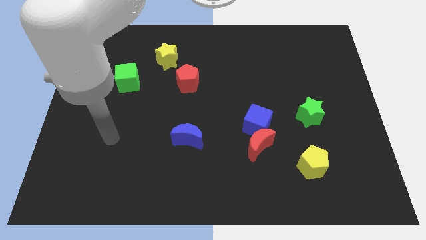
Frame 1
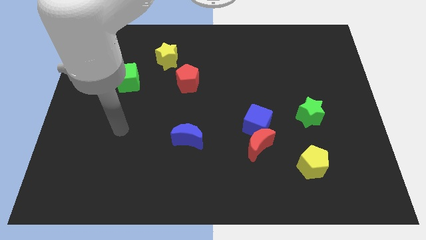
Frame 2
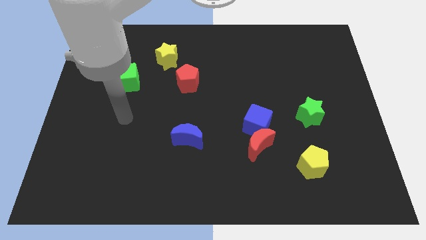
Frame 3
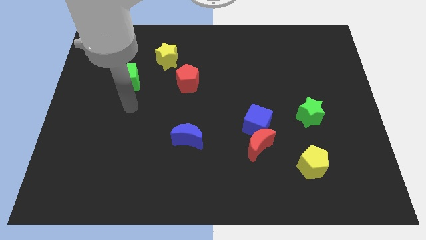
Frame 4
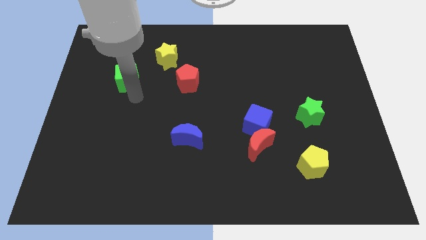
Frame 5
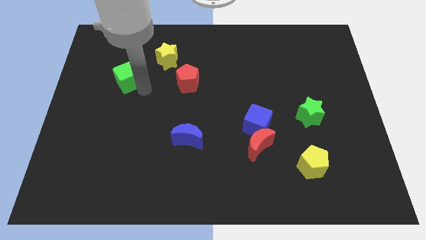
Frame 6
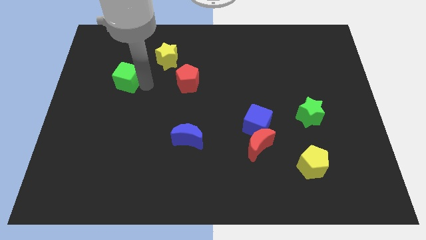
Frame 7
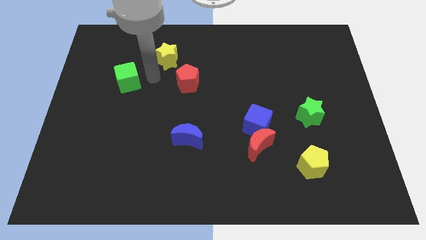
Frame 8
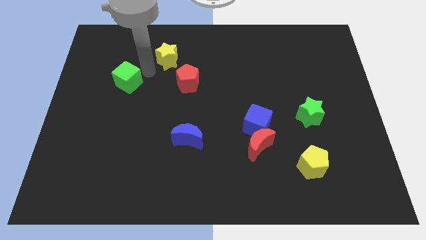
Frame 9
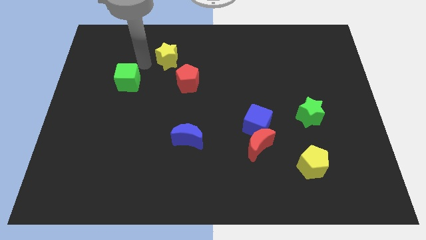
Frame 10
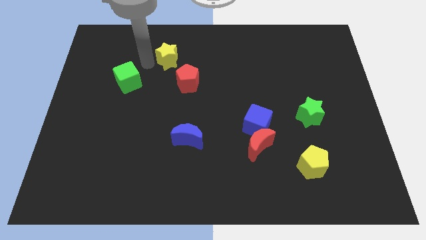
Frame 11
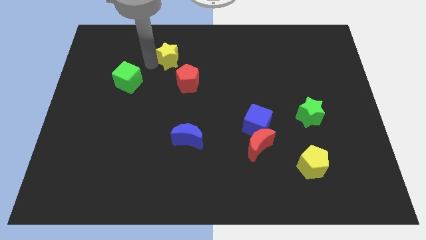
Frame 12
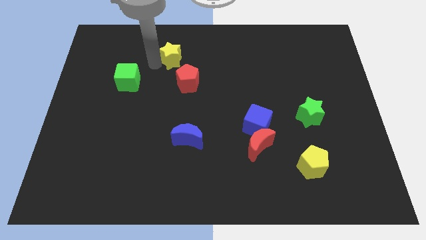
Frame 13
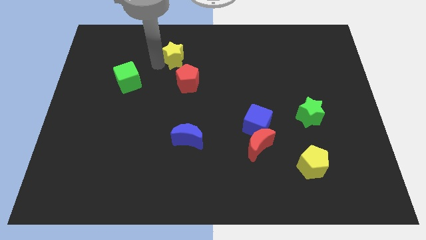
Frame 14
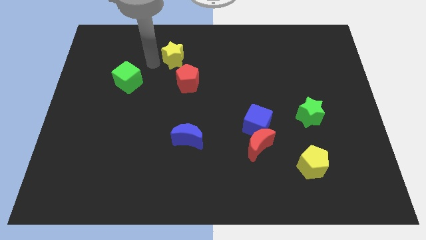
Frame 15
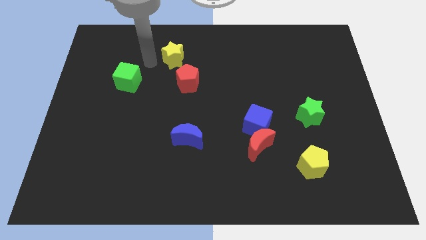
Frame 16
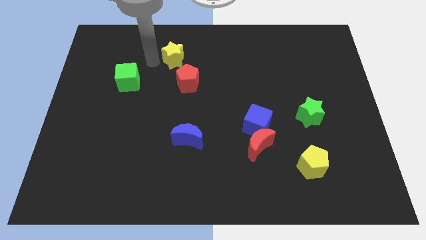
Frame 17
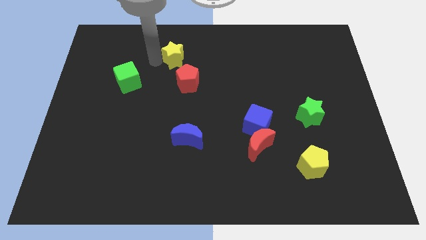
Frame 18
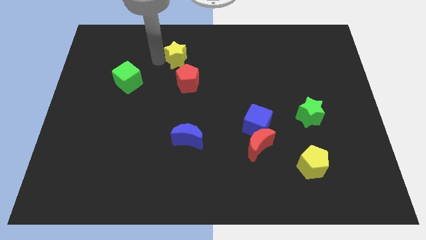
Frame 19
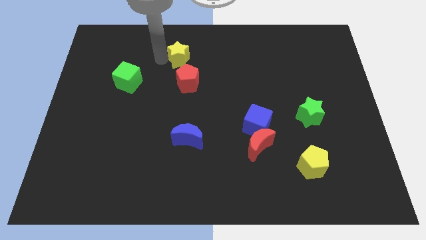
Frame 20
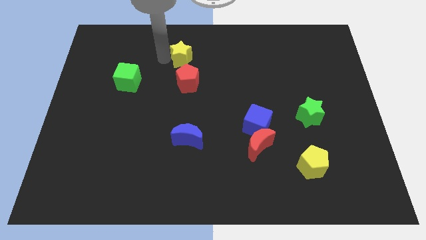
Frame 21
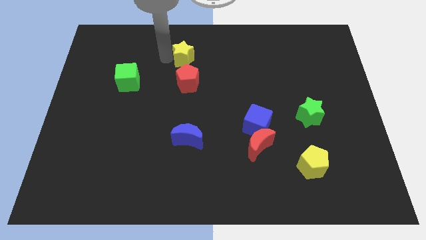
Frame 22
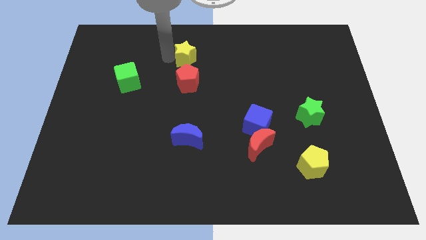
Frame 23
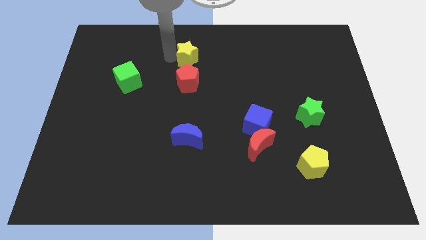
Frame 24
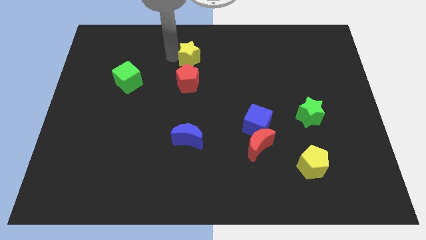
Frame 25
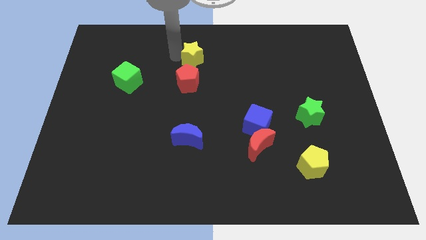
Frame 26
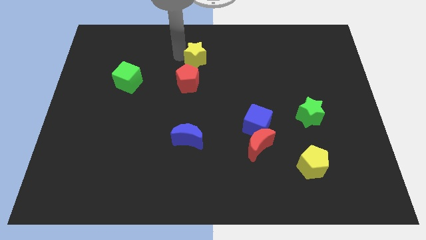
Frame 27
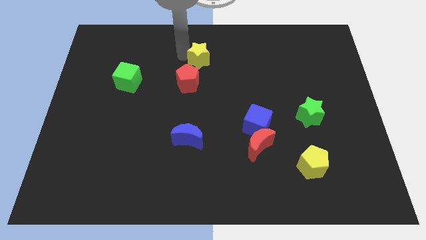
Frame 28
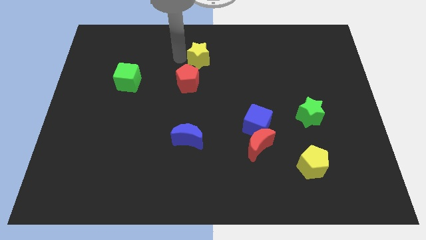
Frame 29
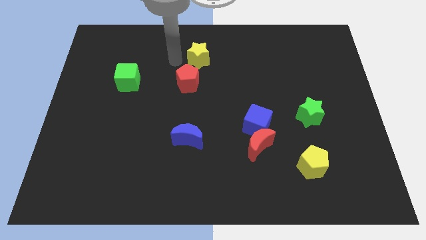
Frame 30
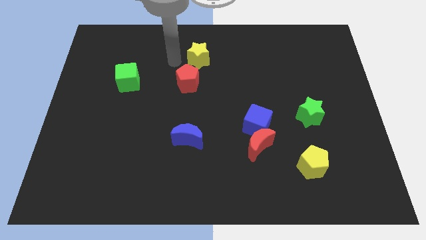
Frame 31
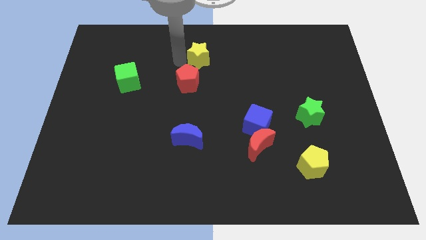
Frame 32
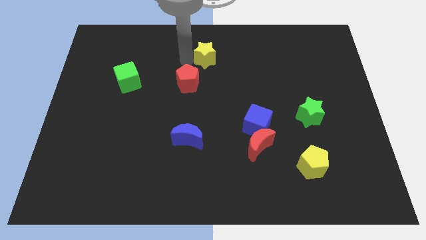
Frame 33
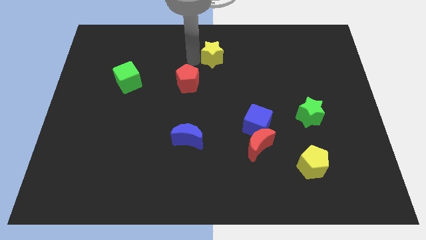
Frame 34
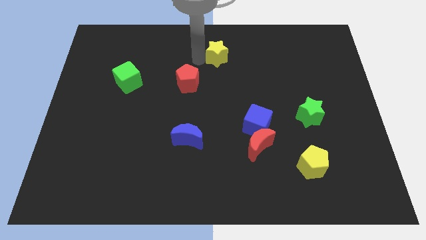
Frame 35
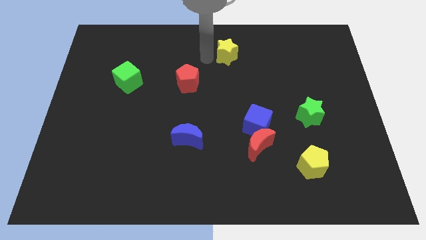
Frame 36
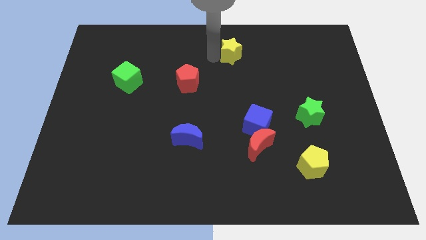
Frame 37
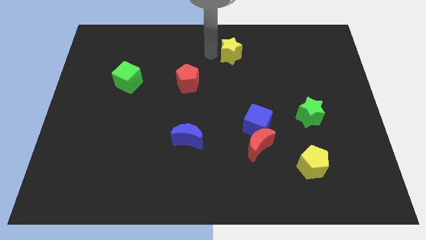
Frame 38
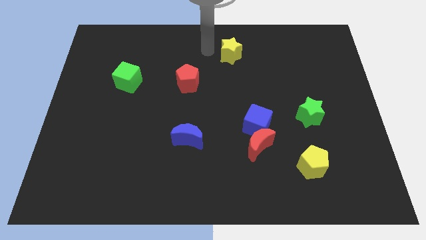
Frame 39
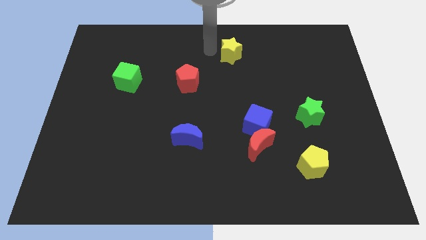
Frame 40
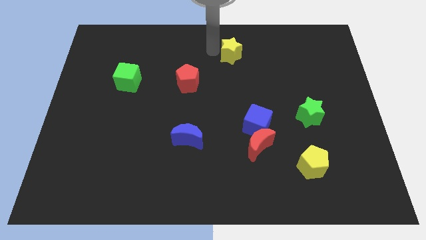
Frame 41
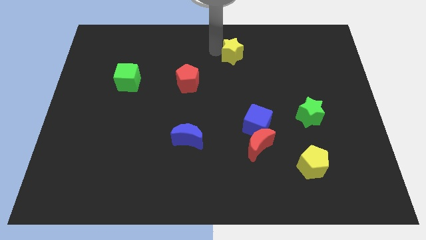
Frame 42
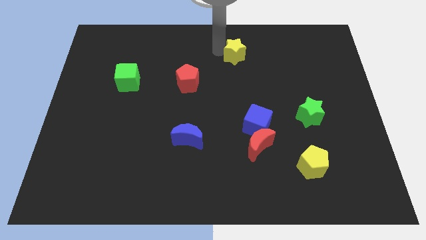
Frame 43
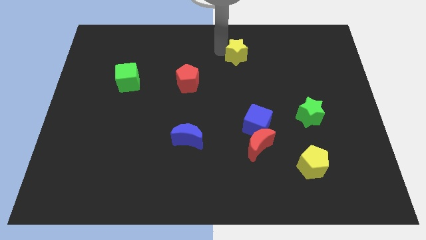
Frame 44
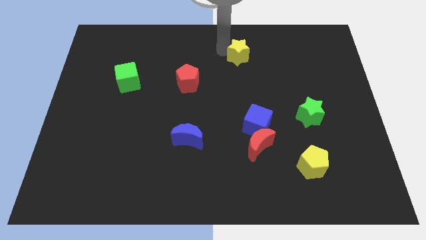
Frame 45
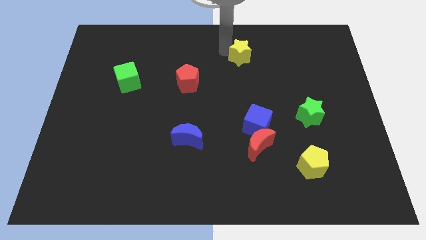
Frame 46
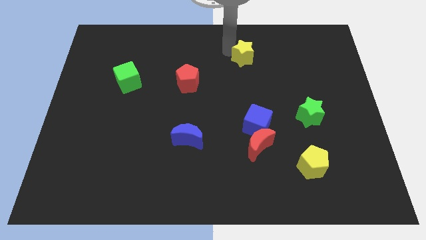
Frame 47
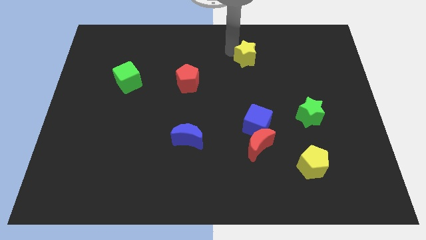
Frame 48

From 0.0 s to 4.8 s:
move the yellow star to the right

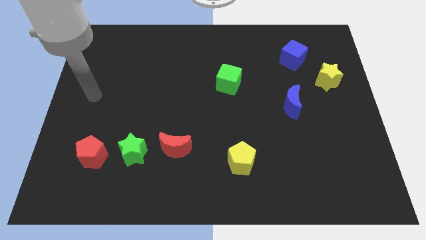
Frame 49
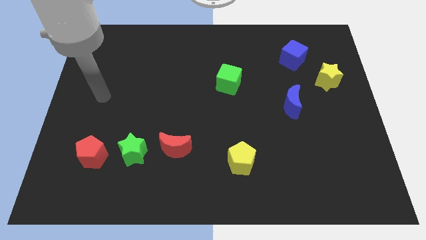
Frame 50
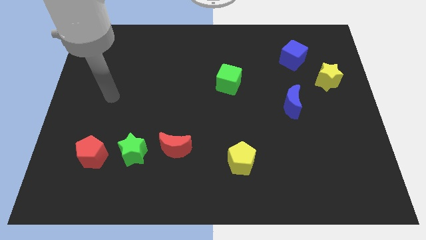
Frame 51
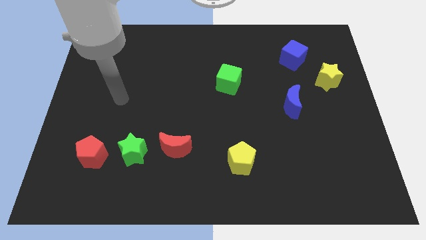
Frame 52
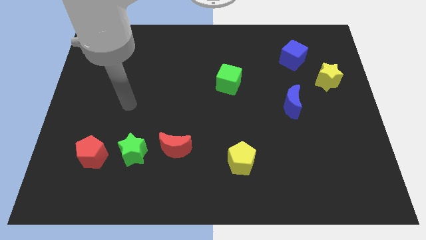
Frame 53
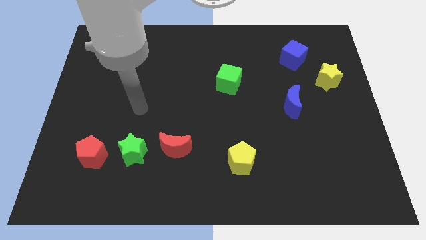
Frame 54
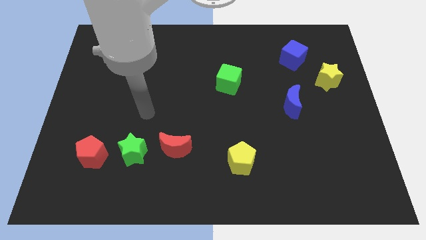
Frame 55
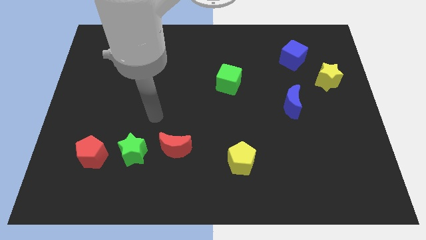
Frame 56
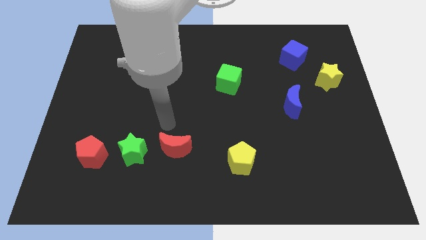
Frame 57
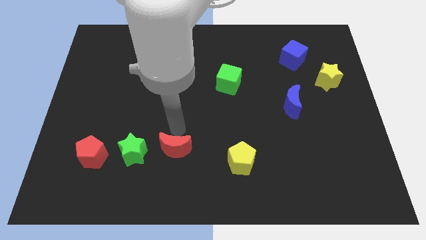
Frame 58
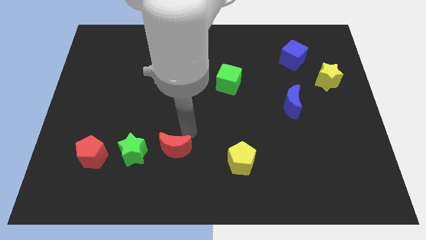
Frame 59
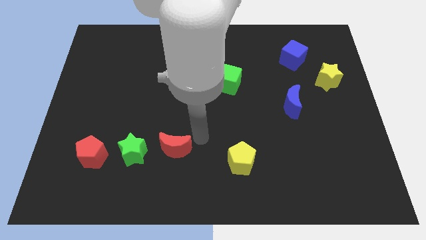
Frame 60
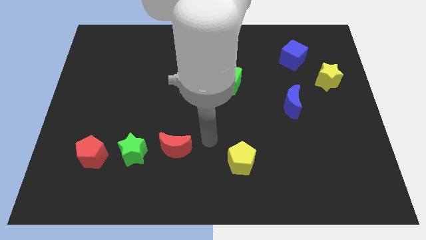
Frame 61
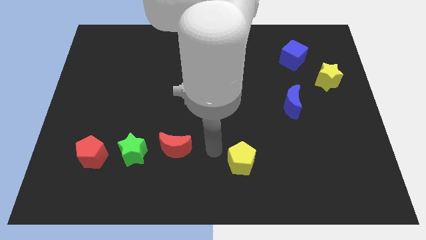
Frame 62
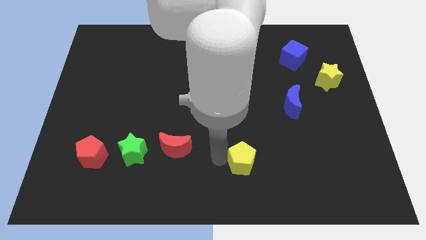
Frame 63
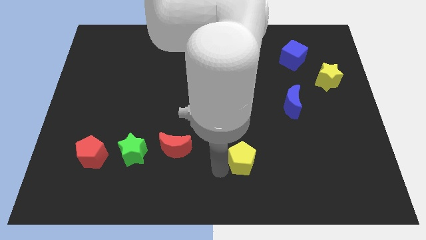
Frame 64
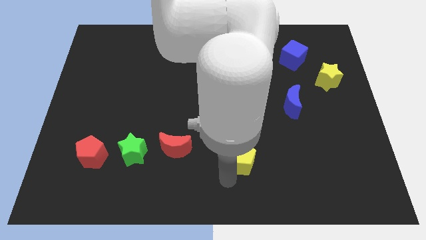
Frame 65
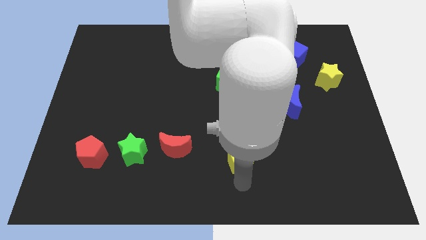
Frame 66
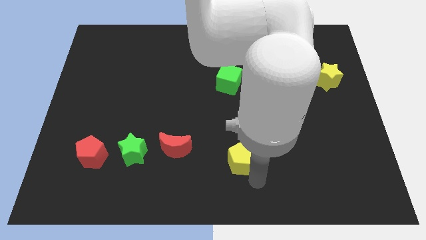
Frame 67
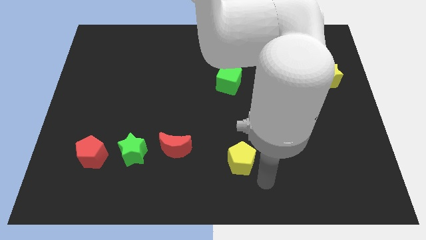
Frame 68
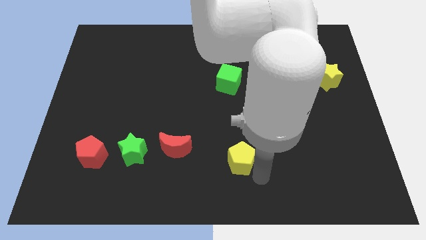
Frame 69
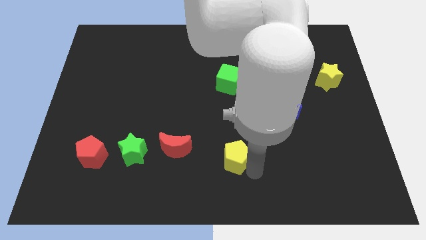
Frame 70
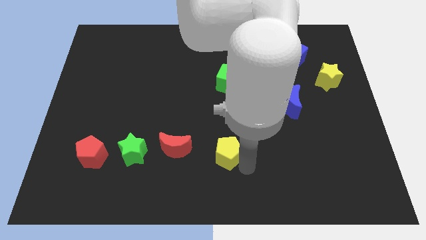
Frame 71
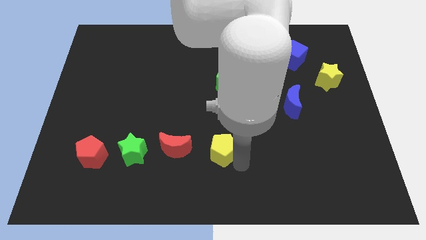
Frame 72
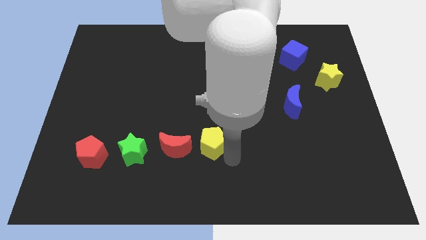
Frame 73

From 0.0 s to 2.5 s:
slightly move the yellow pentagon upwards and then to the left

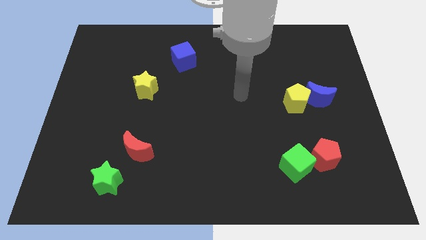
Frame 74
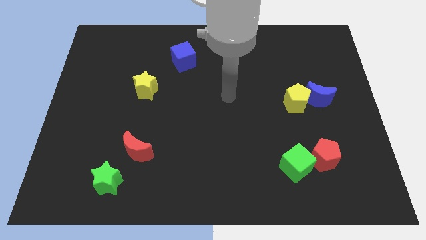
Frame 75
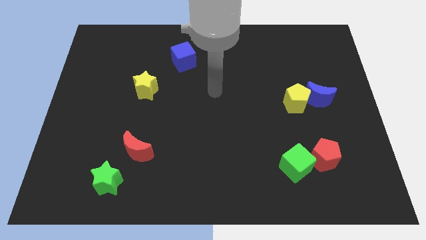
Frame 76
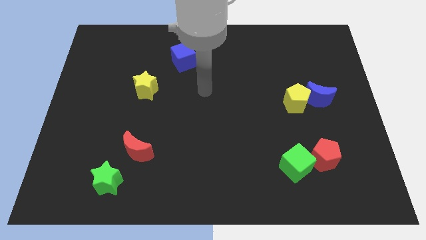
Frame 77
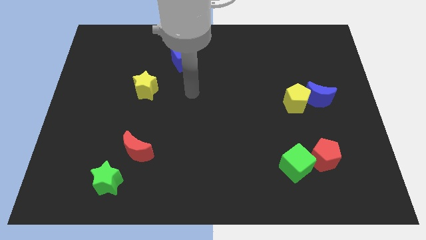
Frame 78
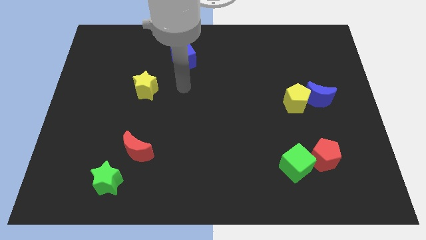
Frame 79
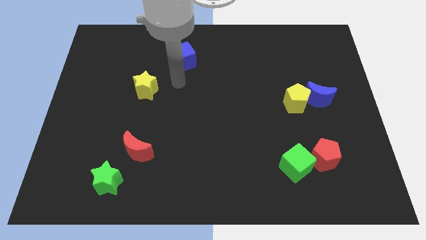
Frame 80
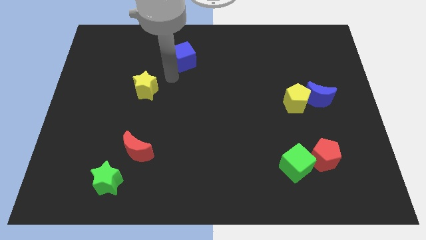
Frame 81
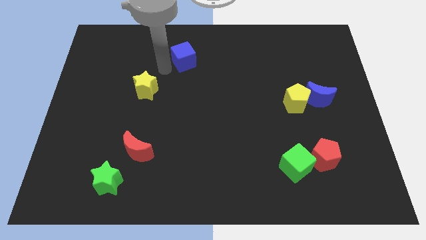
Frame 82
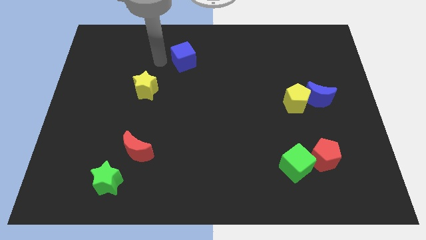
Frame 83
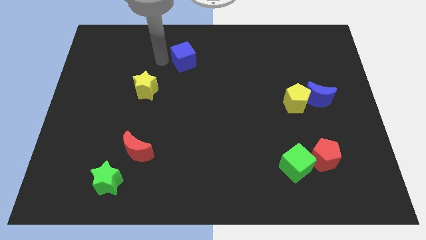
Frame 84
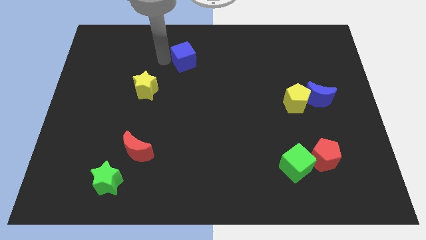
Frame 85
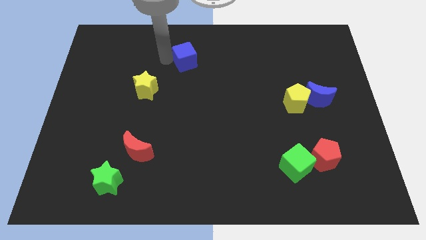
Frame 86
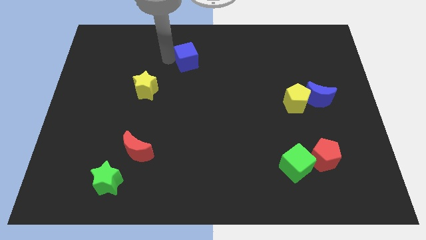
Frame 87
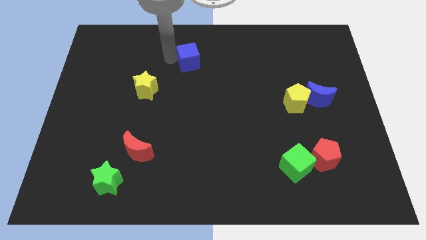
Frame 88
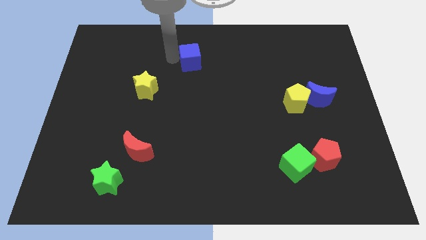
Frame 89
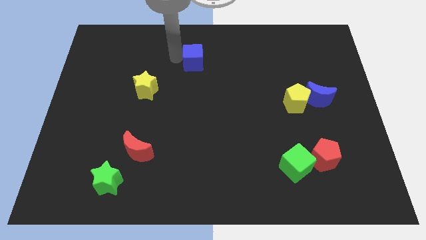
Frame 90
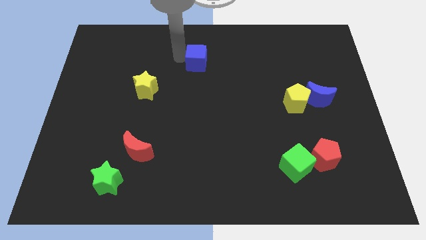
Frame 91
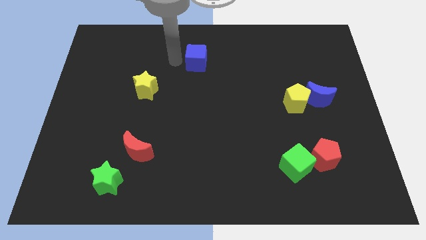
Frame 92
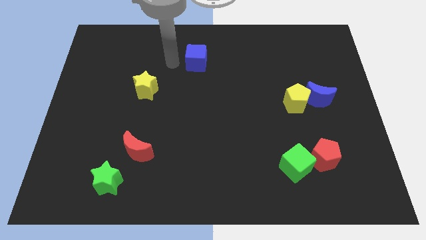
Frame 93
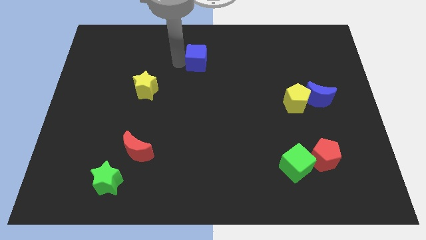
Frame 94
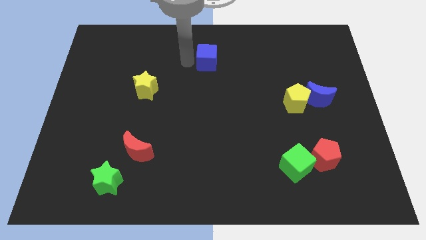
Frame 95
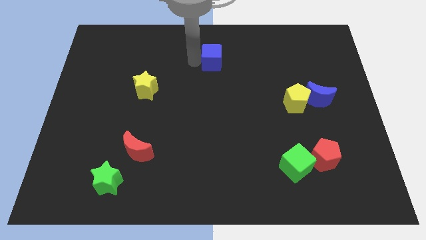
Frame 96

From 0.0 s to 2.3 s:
slide the blue cube a bit right
